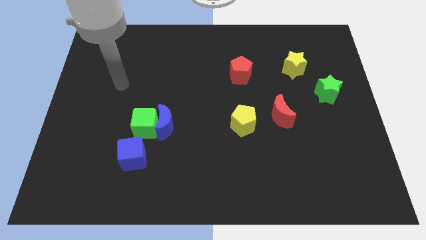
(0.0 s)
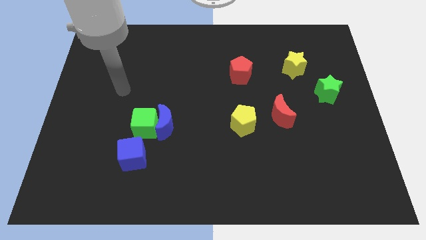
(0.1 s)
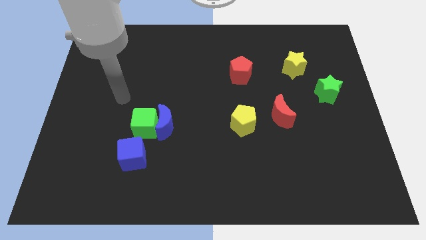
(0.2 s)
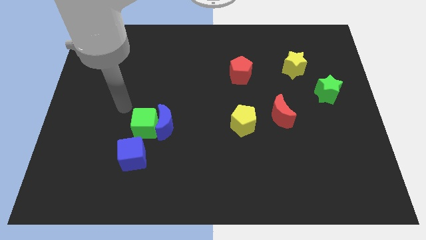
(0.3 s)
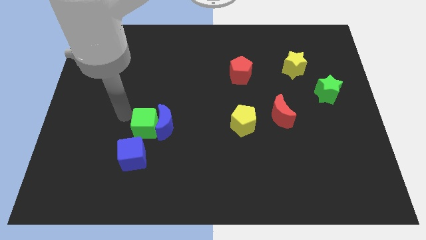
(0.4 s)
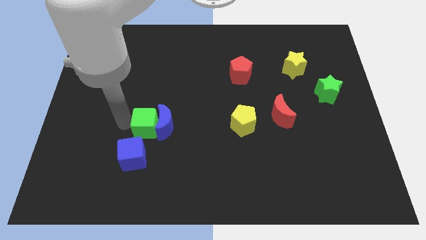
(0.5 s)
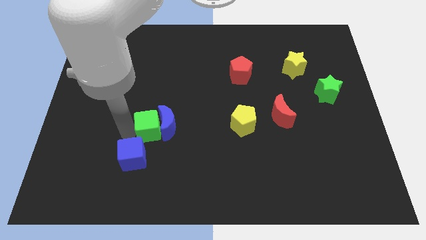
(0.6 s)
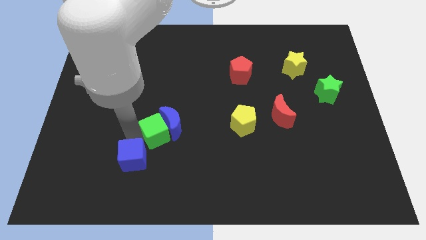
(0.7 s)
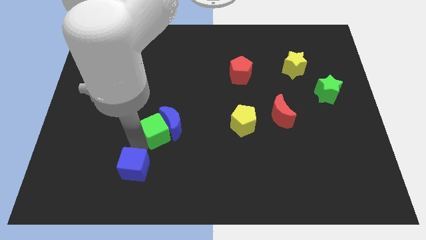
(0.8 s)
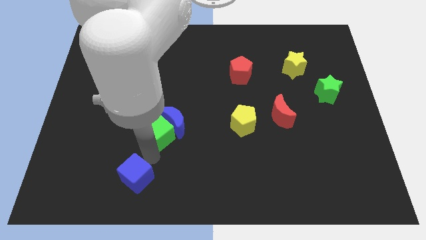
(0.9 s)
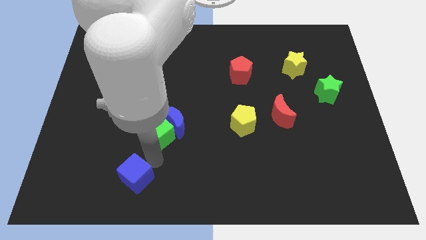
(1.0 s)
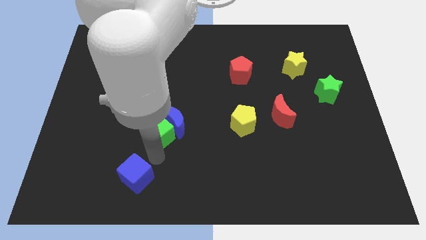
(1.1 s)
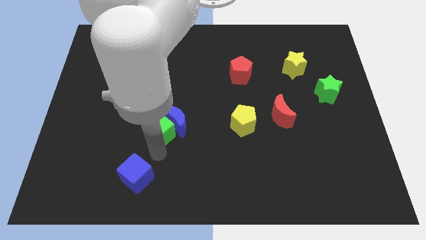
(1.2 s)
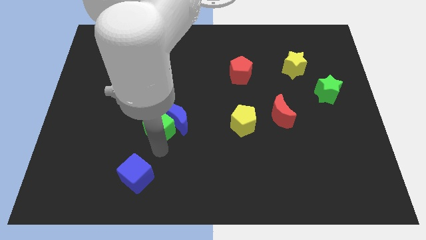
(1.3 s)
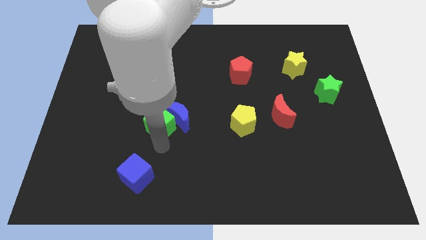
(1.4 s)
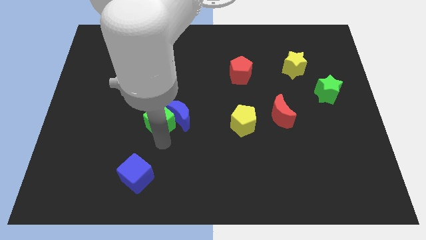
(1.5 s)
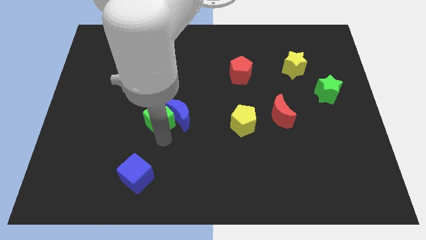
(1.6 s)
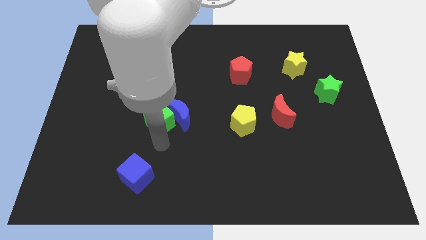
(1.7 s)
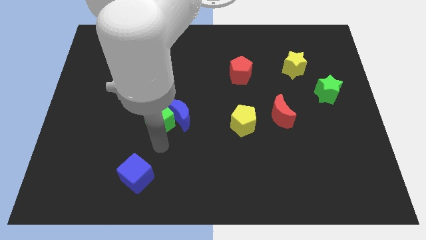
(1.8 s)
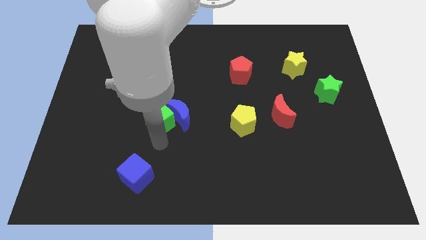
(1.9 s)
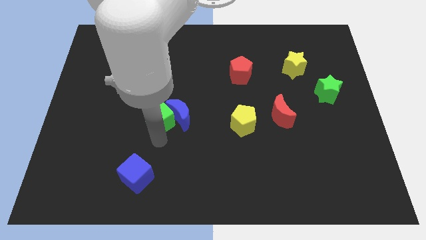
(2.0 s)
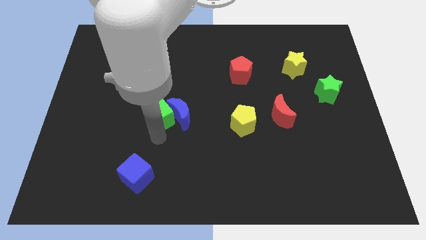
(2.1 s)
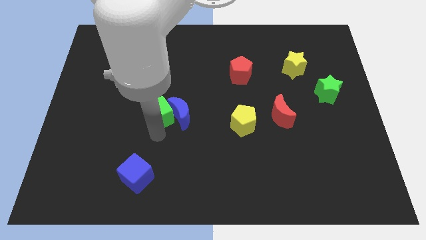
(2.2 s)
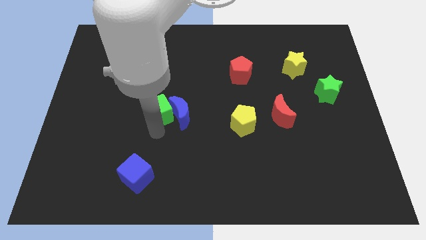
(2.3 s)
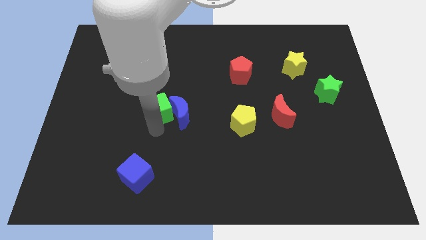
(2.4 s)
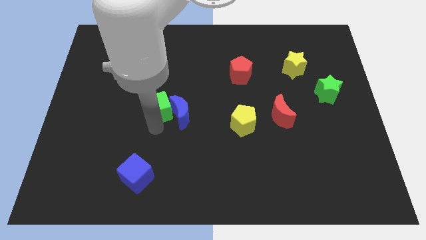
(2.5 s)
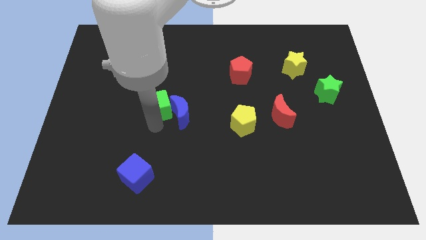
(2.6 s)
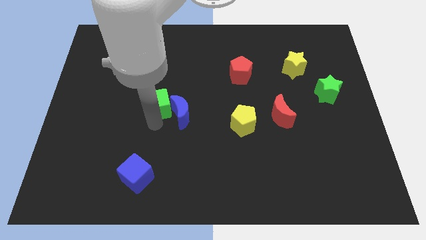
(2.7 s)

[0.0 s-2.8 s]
move the green cube away from the blue moon and blue cube

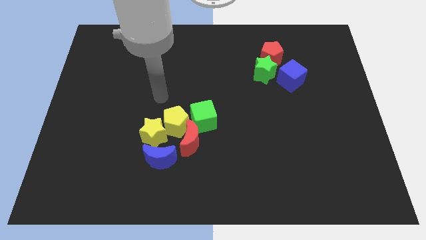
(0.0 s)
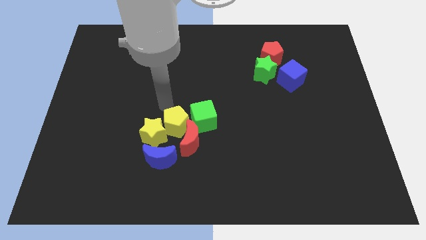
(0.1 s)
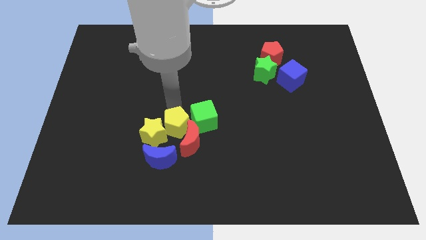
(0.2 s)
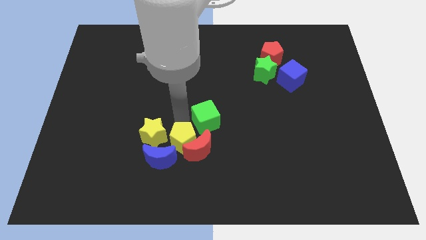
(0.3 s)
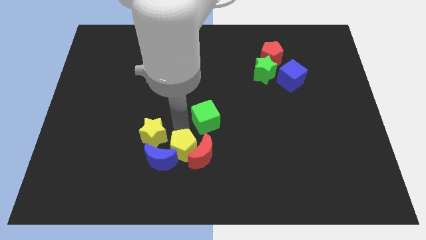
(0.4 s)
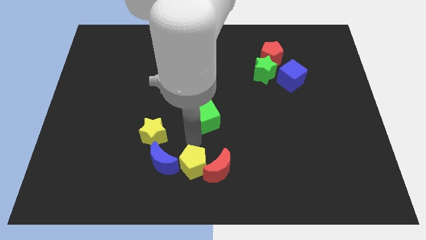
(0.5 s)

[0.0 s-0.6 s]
move the green cube away from the yellow pentagon and red moon

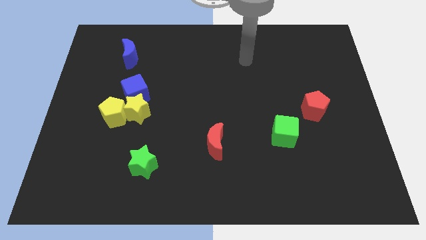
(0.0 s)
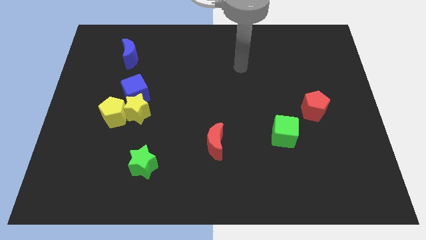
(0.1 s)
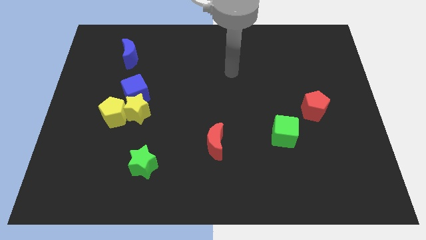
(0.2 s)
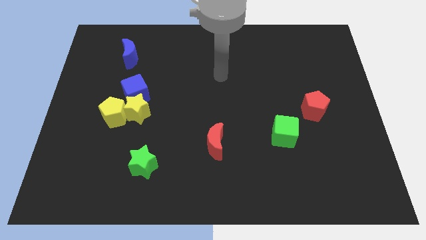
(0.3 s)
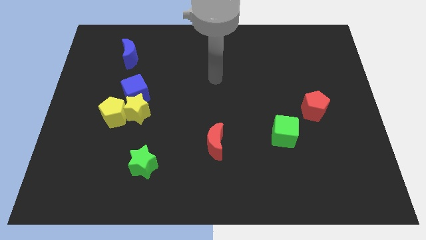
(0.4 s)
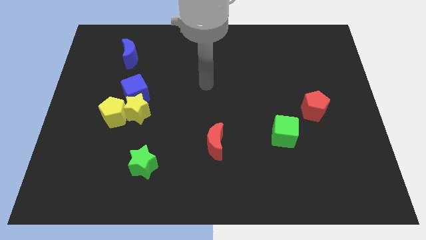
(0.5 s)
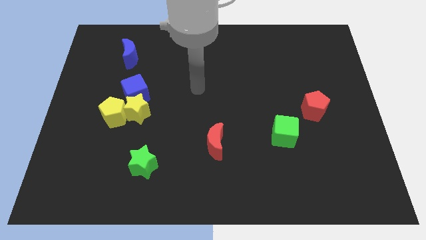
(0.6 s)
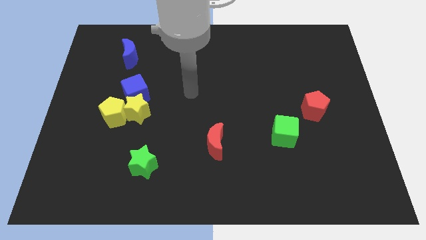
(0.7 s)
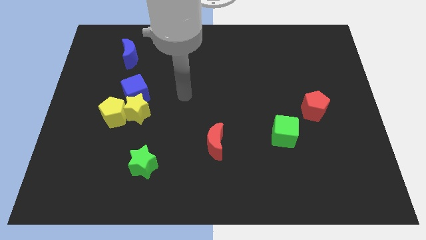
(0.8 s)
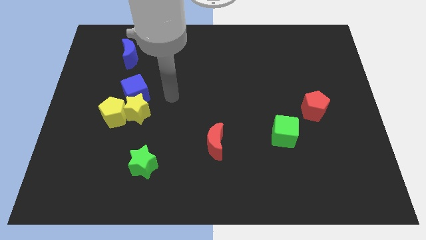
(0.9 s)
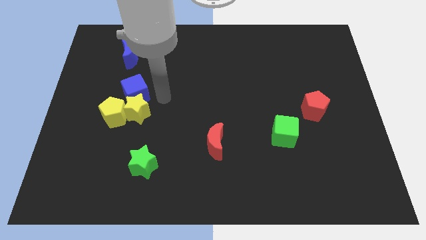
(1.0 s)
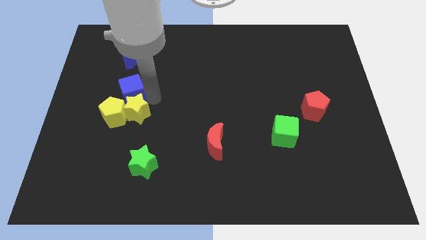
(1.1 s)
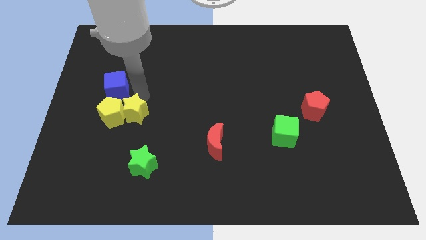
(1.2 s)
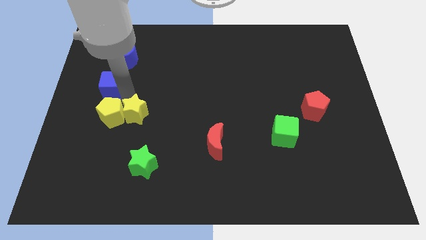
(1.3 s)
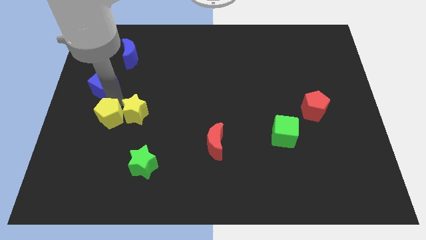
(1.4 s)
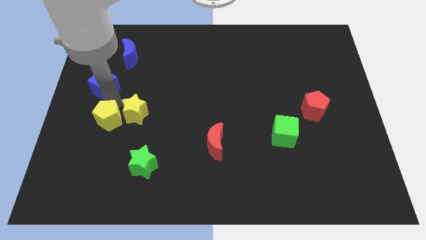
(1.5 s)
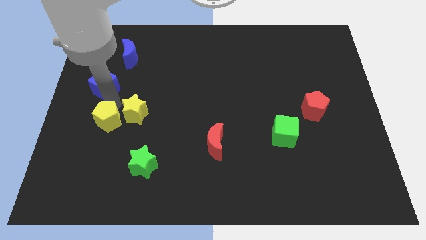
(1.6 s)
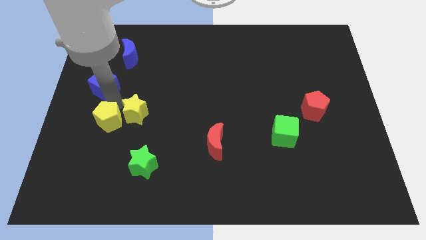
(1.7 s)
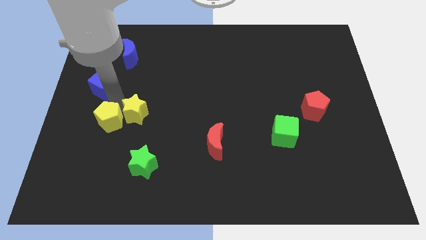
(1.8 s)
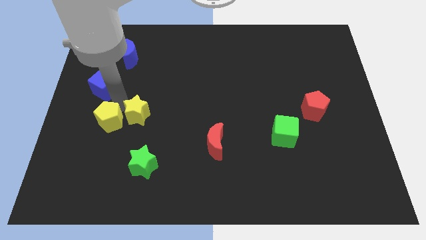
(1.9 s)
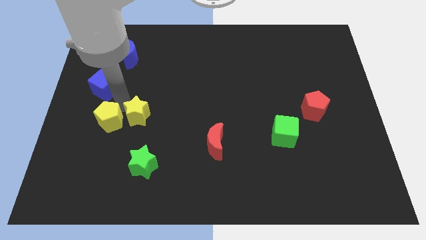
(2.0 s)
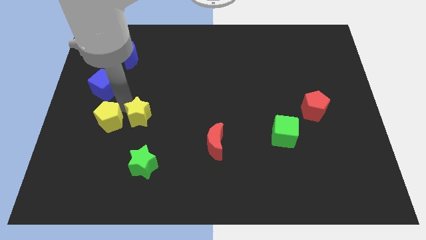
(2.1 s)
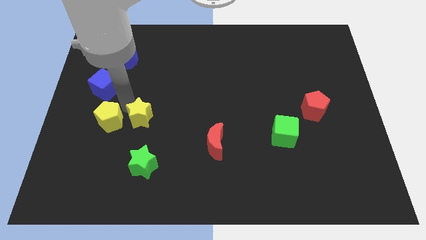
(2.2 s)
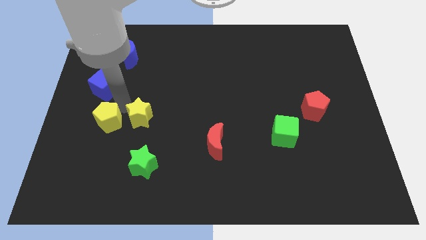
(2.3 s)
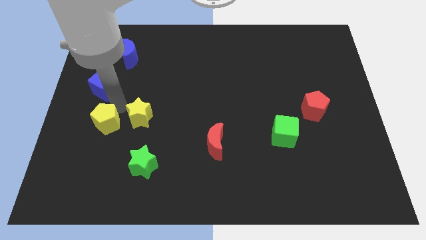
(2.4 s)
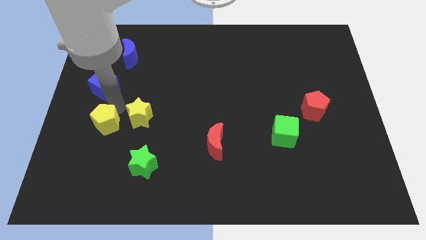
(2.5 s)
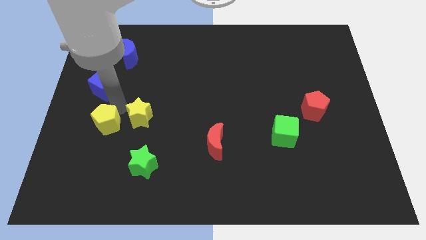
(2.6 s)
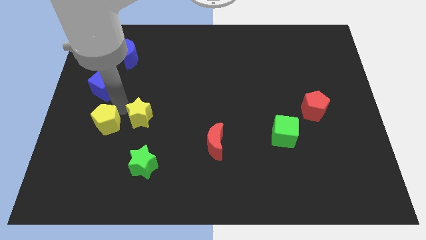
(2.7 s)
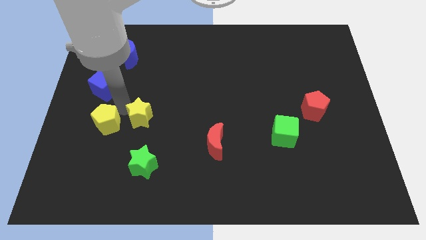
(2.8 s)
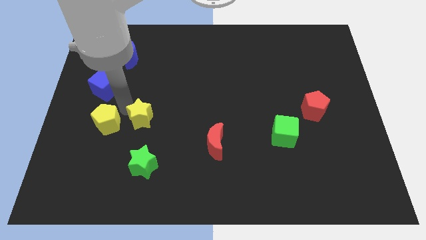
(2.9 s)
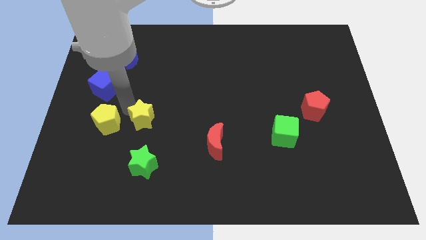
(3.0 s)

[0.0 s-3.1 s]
move the yellow star away from the yellow pentagon and blue cube

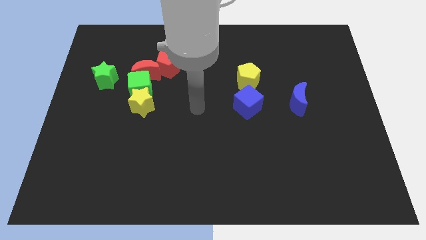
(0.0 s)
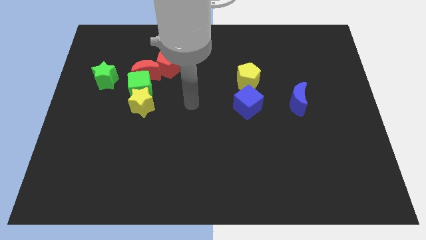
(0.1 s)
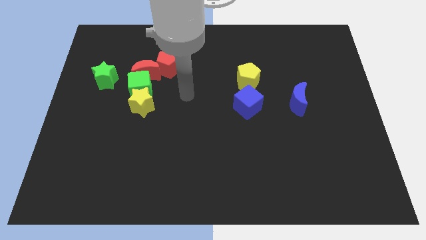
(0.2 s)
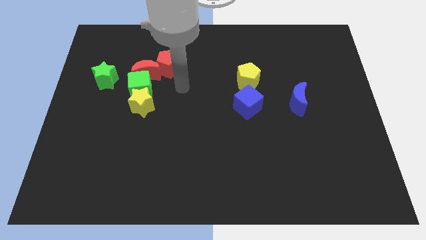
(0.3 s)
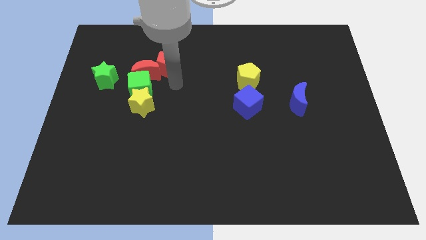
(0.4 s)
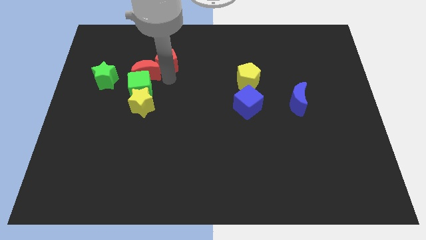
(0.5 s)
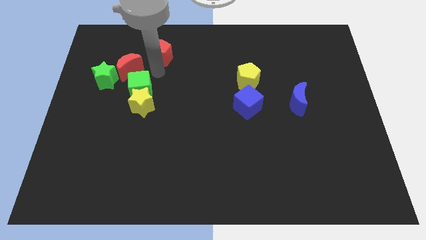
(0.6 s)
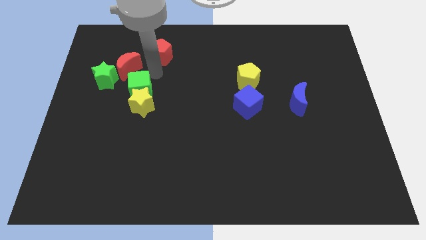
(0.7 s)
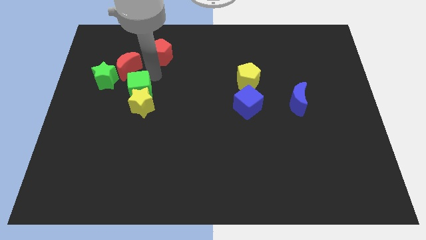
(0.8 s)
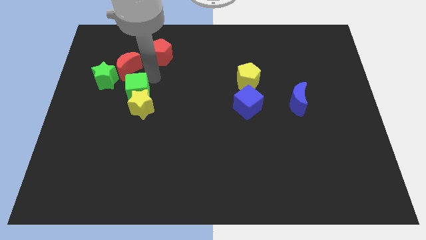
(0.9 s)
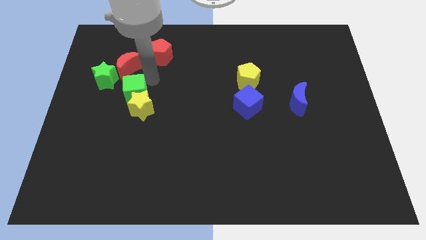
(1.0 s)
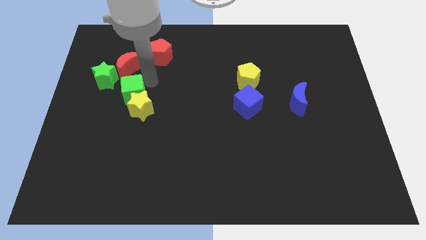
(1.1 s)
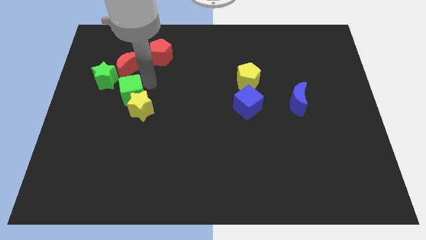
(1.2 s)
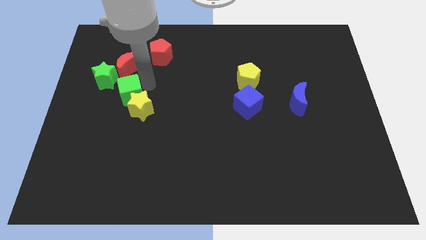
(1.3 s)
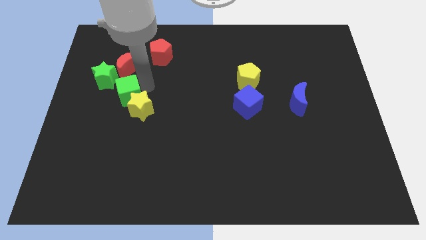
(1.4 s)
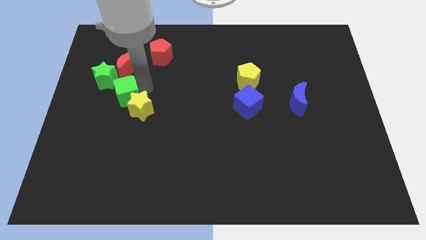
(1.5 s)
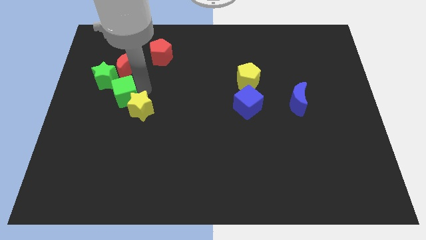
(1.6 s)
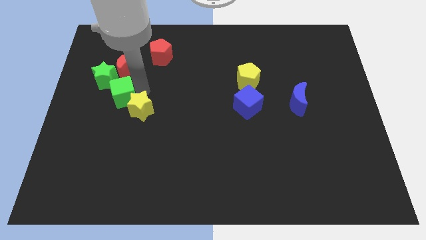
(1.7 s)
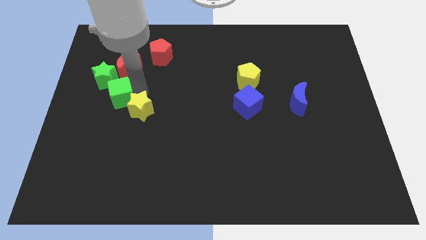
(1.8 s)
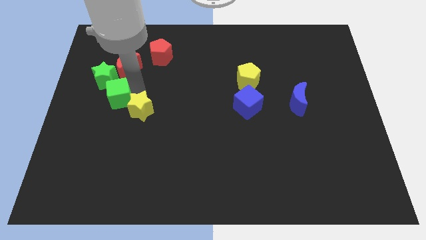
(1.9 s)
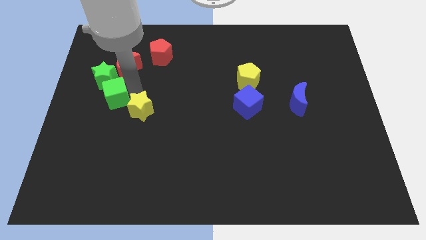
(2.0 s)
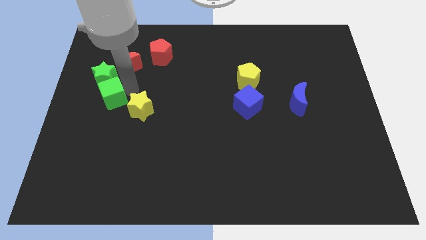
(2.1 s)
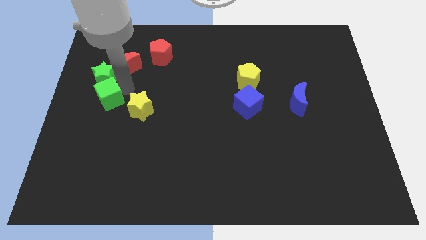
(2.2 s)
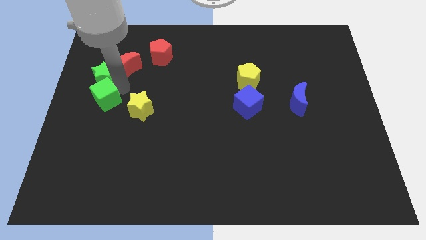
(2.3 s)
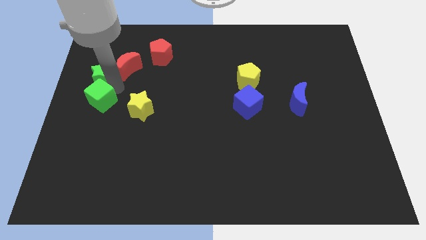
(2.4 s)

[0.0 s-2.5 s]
pull the green cube apart from the group

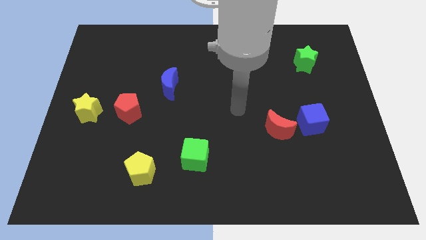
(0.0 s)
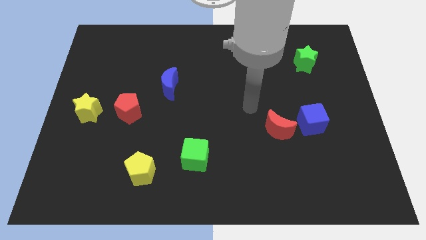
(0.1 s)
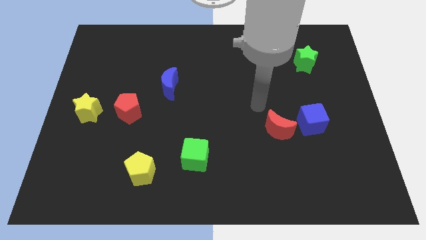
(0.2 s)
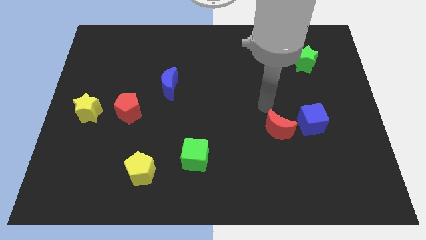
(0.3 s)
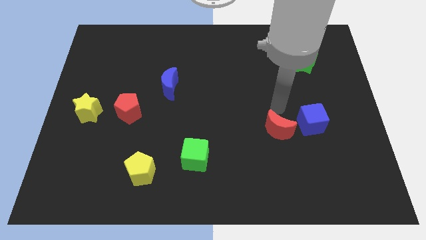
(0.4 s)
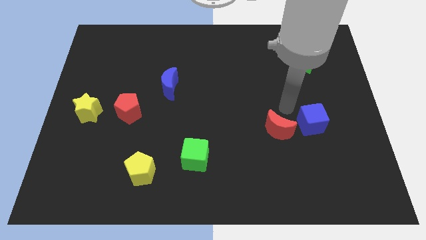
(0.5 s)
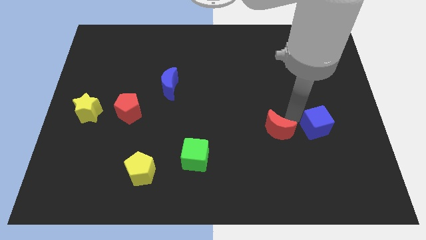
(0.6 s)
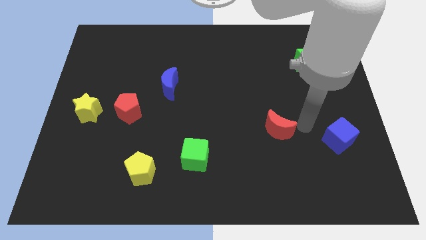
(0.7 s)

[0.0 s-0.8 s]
pull the red moon apart from the blue cube
